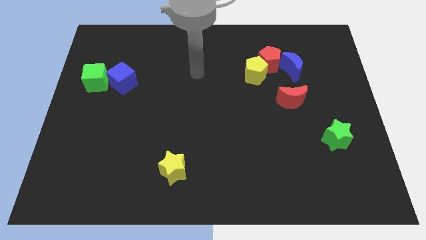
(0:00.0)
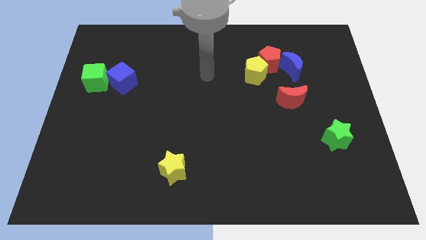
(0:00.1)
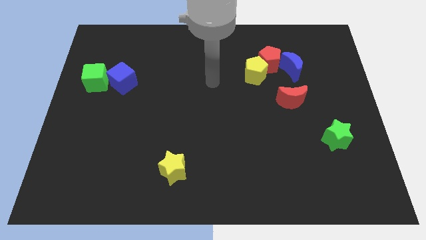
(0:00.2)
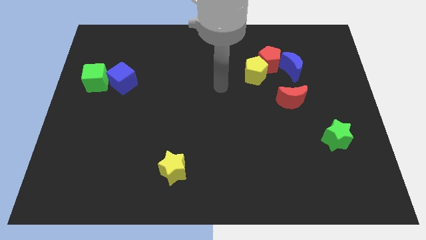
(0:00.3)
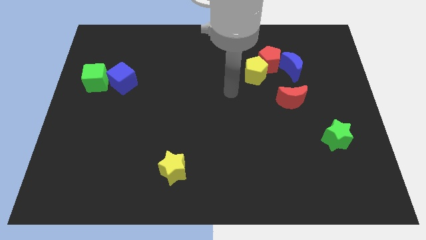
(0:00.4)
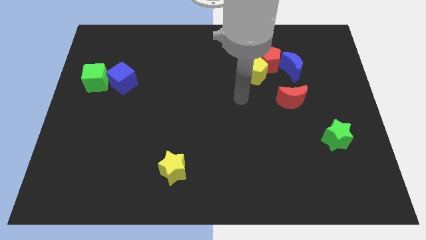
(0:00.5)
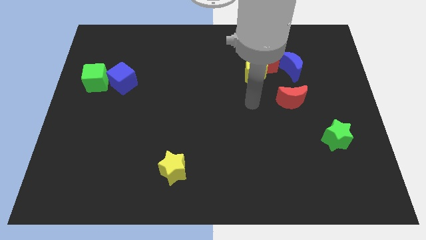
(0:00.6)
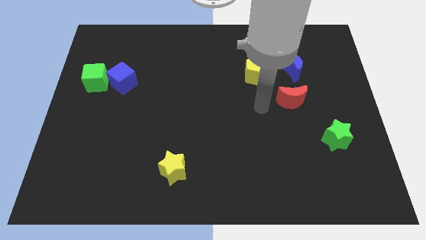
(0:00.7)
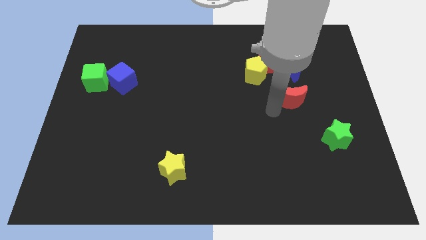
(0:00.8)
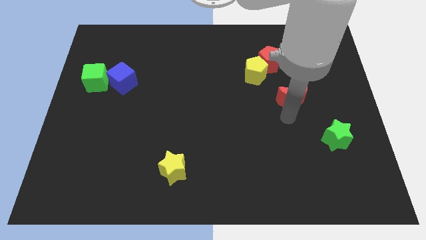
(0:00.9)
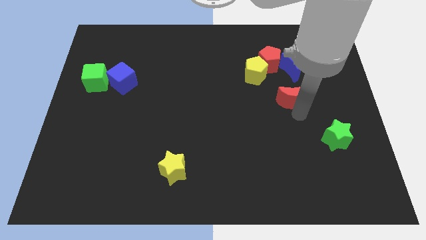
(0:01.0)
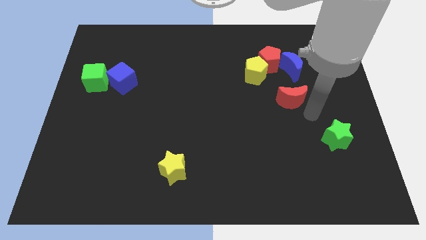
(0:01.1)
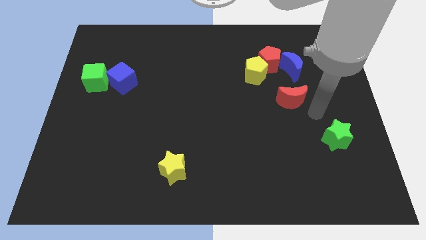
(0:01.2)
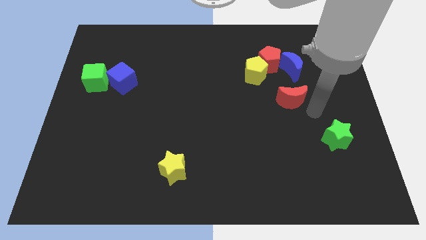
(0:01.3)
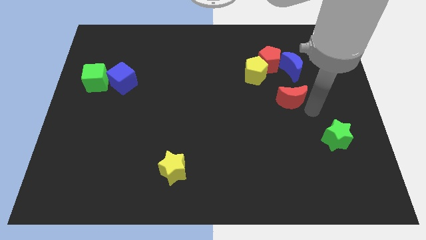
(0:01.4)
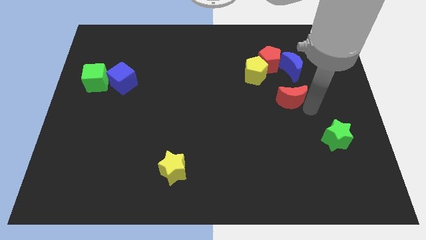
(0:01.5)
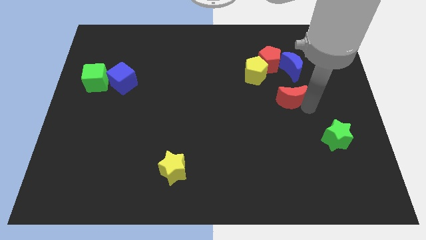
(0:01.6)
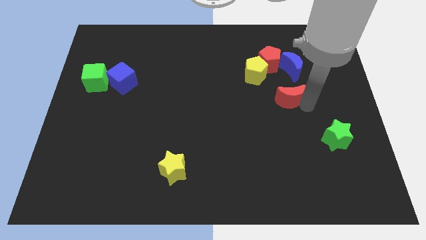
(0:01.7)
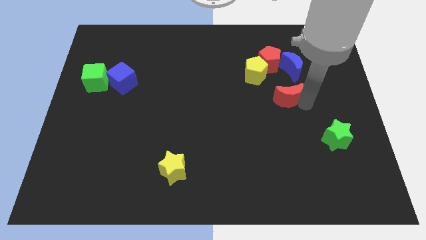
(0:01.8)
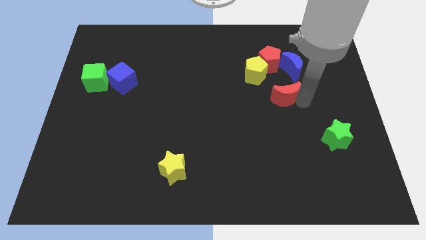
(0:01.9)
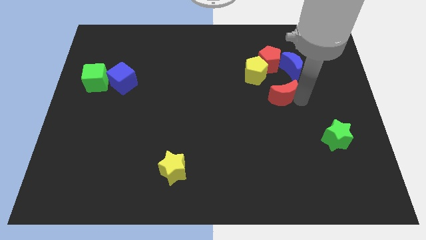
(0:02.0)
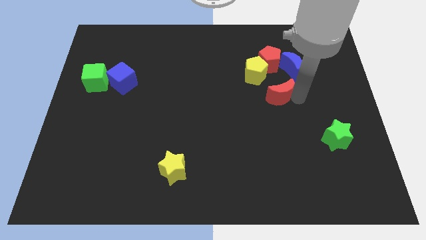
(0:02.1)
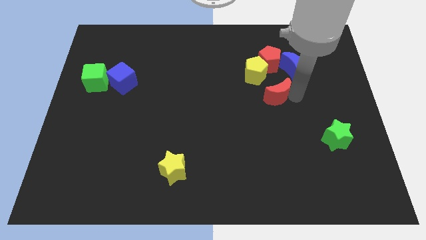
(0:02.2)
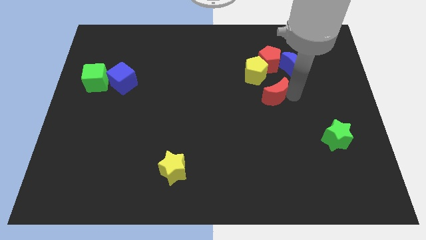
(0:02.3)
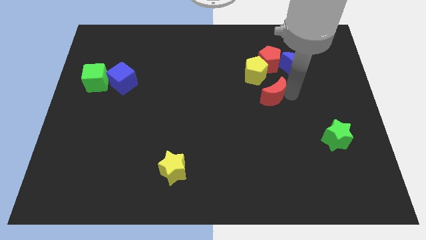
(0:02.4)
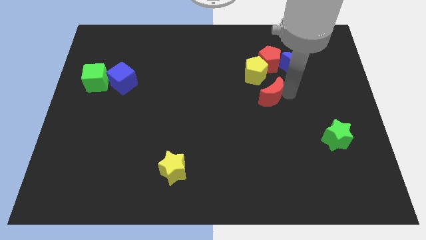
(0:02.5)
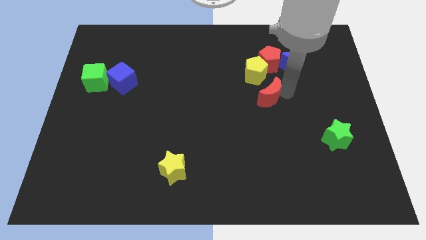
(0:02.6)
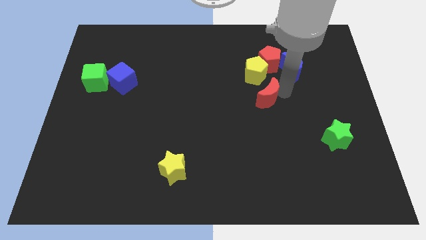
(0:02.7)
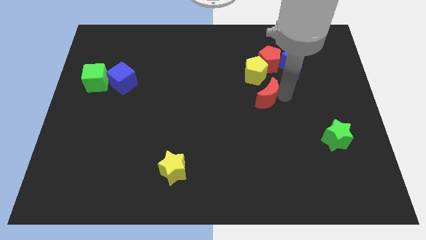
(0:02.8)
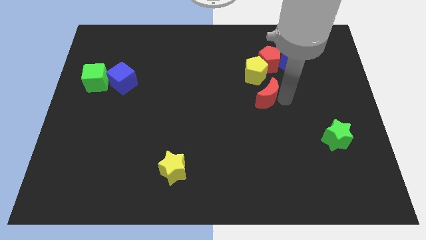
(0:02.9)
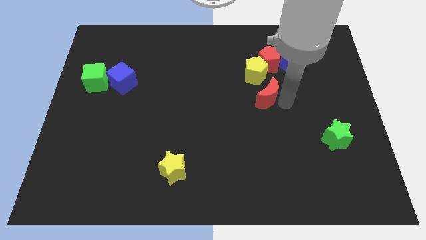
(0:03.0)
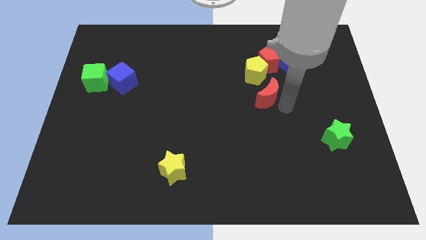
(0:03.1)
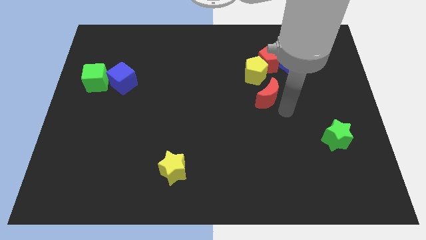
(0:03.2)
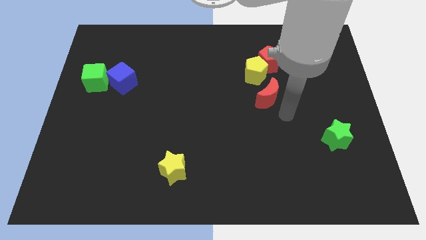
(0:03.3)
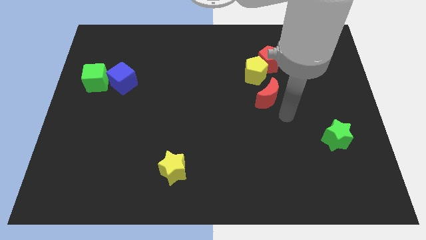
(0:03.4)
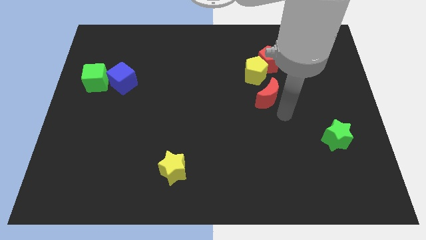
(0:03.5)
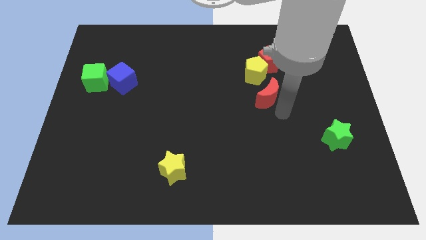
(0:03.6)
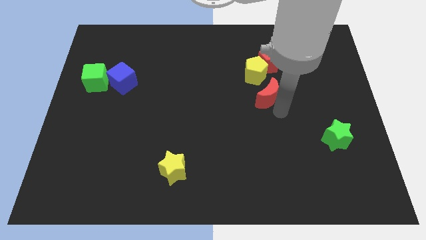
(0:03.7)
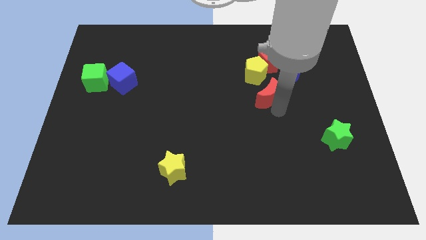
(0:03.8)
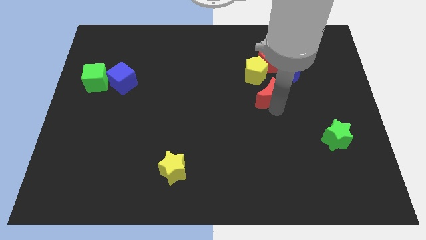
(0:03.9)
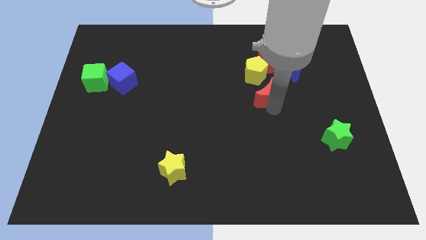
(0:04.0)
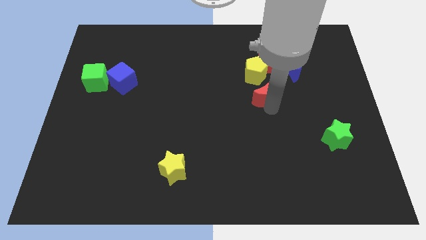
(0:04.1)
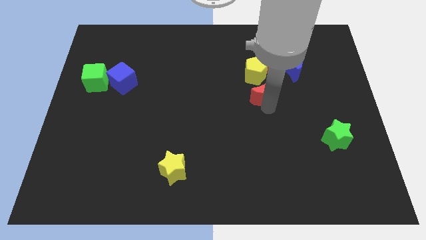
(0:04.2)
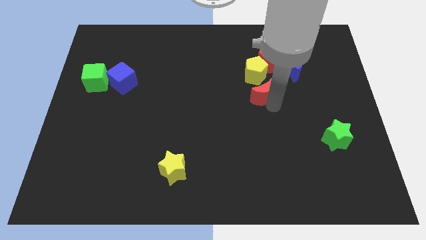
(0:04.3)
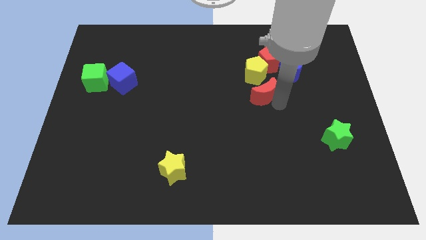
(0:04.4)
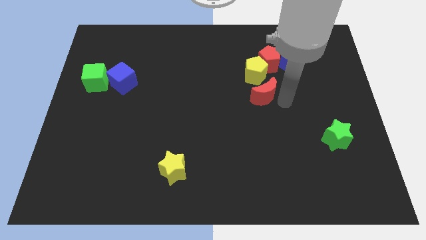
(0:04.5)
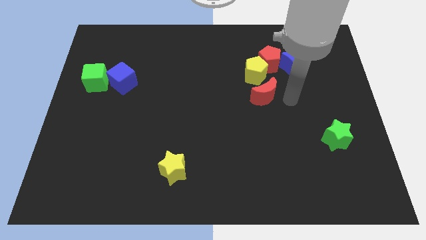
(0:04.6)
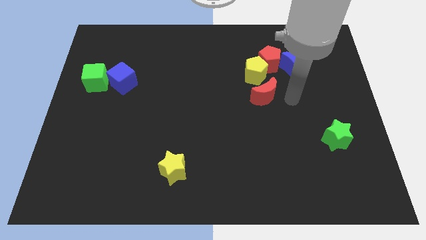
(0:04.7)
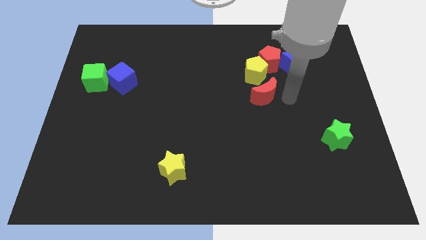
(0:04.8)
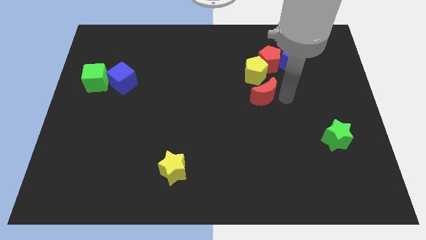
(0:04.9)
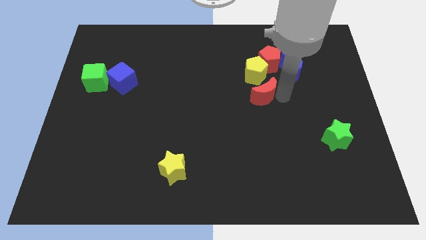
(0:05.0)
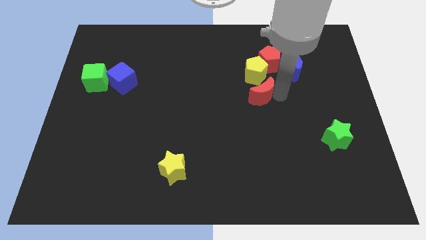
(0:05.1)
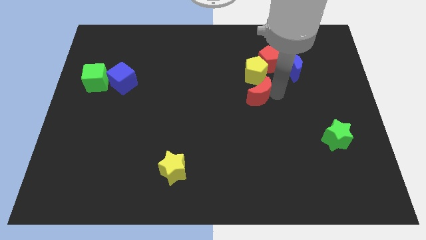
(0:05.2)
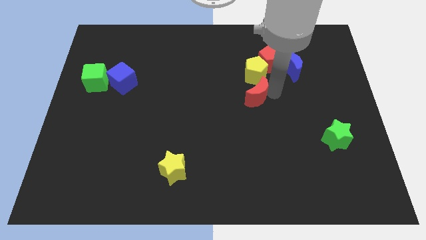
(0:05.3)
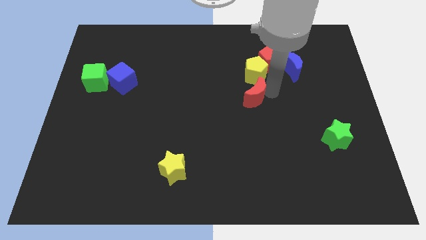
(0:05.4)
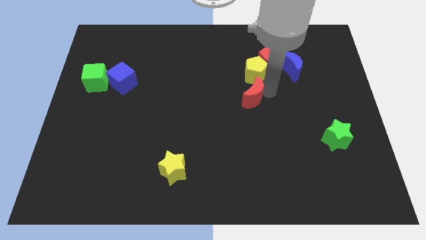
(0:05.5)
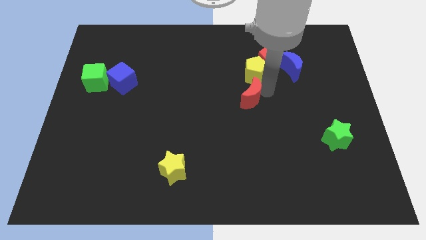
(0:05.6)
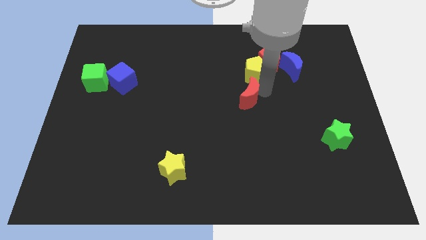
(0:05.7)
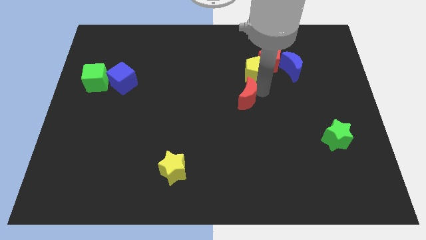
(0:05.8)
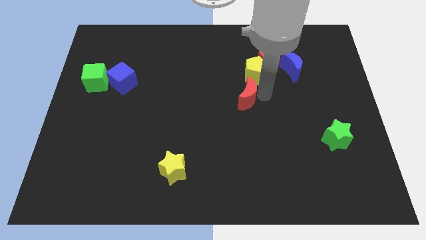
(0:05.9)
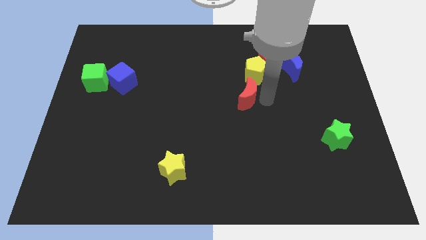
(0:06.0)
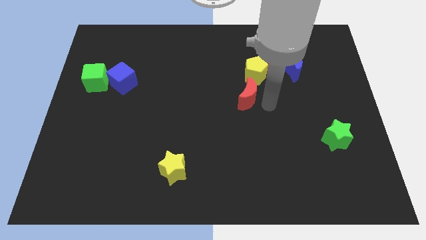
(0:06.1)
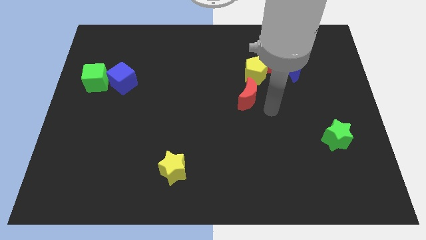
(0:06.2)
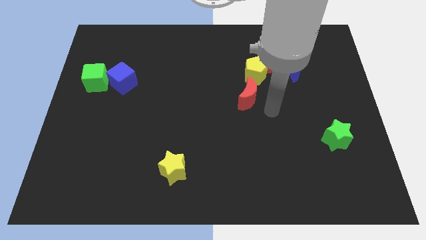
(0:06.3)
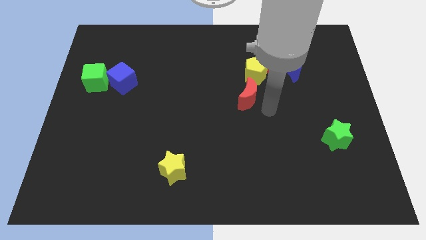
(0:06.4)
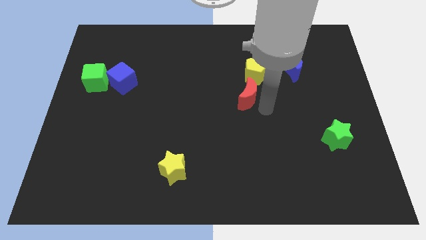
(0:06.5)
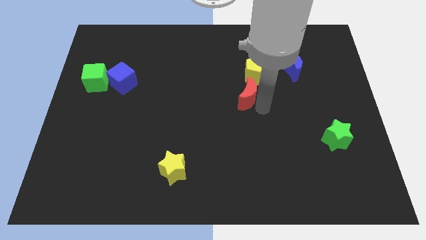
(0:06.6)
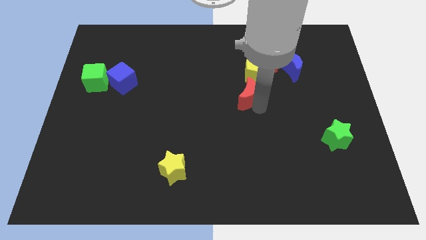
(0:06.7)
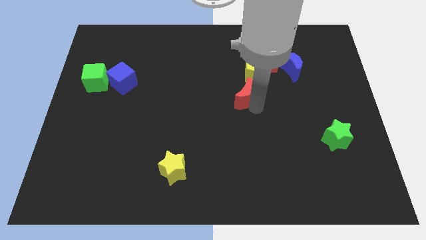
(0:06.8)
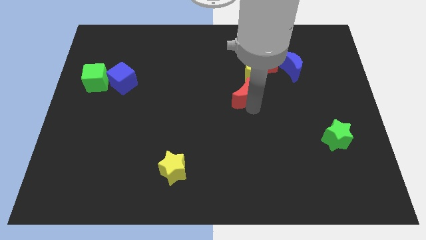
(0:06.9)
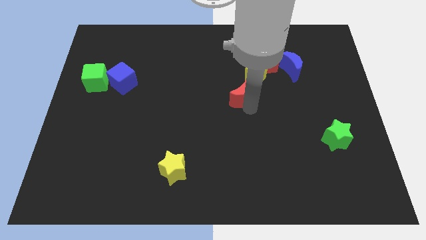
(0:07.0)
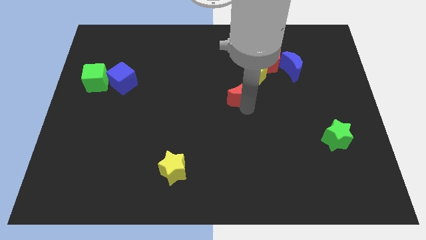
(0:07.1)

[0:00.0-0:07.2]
slightly push the red moon upwards and then to the left

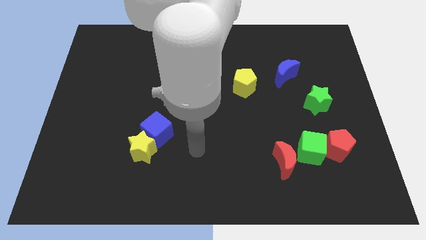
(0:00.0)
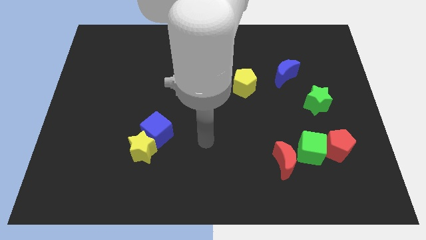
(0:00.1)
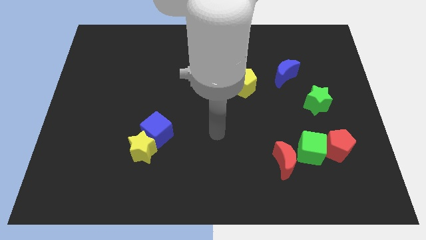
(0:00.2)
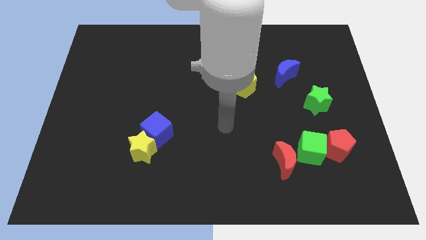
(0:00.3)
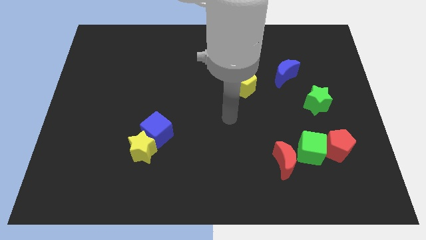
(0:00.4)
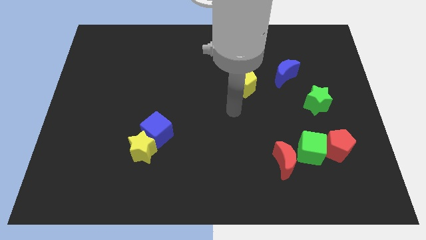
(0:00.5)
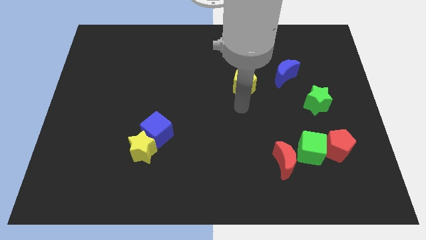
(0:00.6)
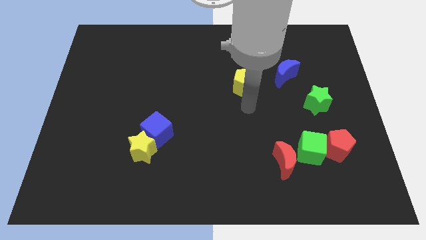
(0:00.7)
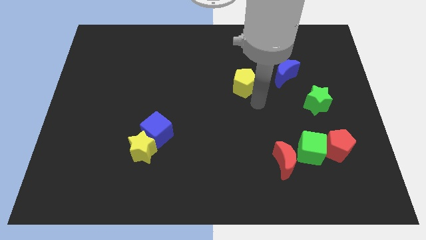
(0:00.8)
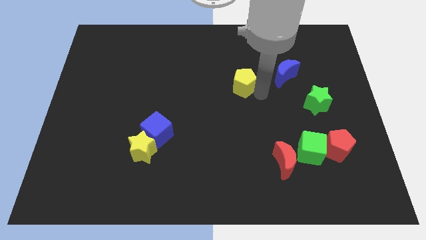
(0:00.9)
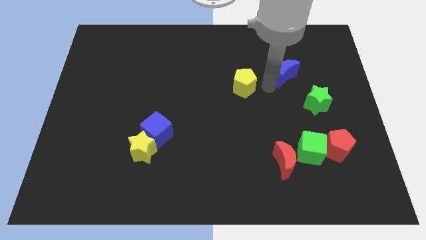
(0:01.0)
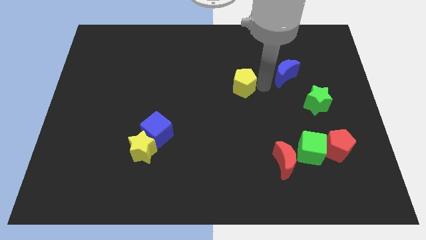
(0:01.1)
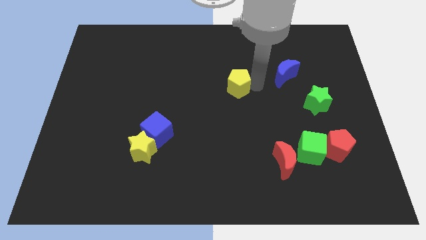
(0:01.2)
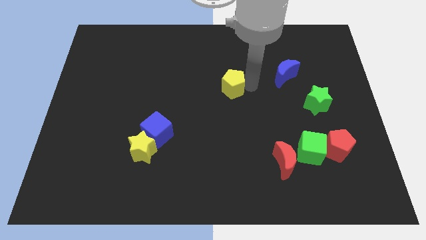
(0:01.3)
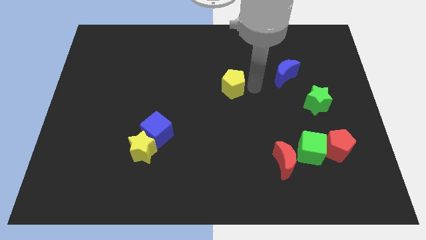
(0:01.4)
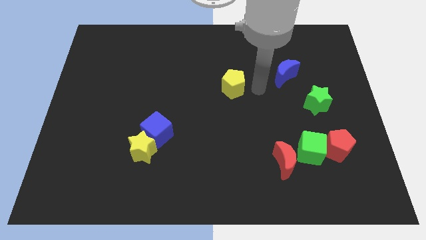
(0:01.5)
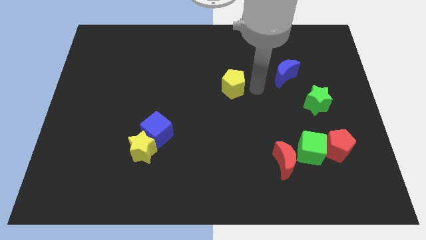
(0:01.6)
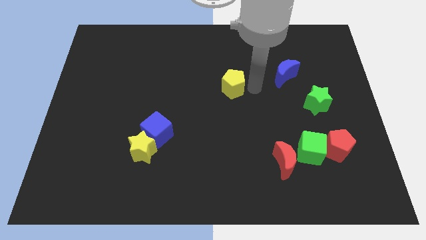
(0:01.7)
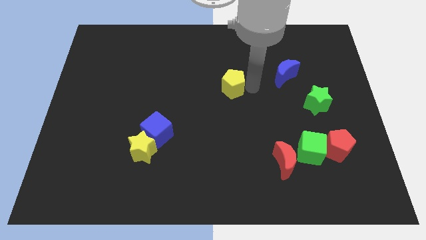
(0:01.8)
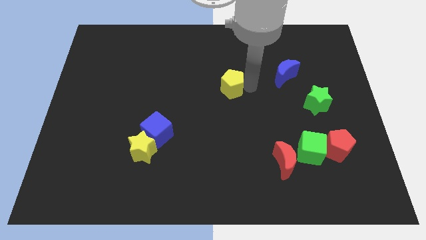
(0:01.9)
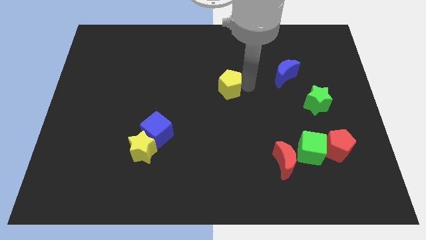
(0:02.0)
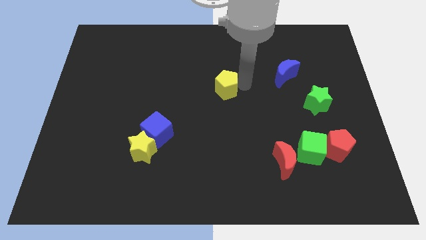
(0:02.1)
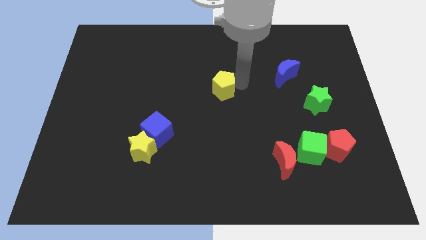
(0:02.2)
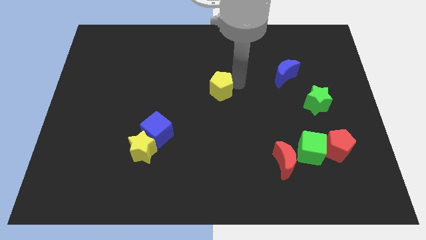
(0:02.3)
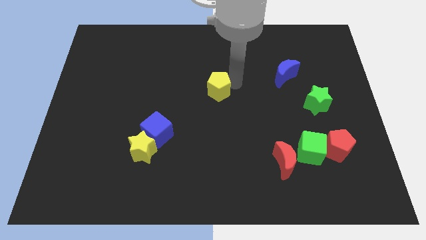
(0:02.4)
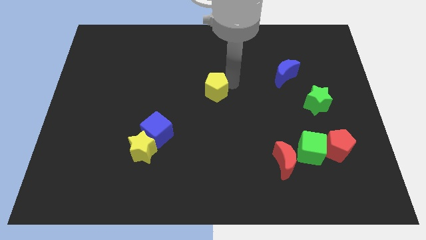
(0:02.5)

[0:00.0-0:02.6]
slide the yellow pentagon a little bit to the left
